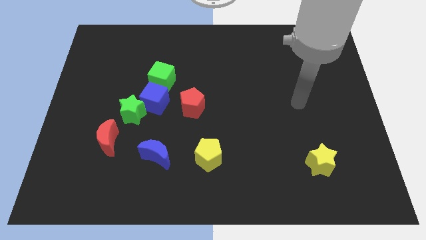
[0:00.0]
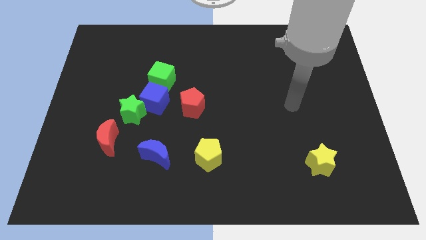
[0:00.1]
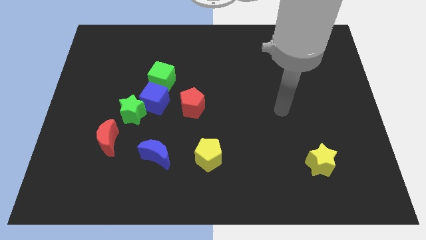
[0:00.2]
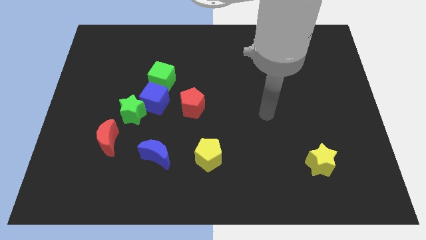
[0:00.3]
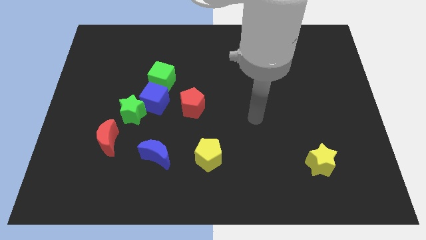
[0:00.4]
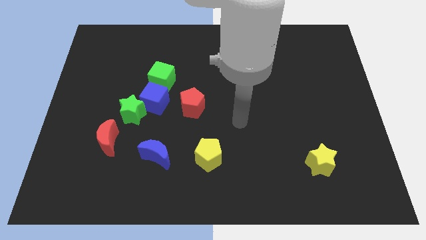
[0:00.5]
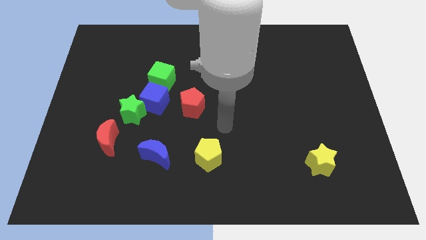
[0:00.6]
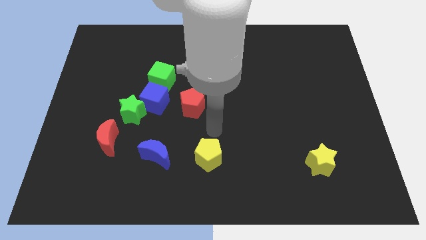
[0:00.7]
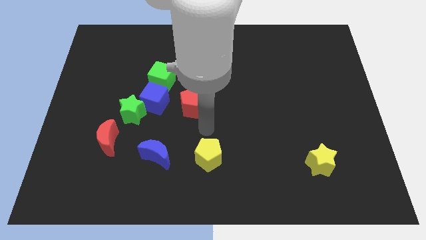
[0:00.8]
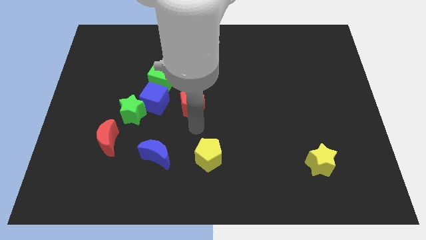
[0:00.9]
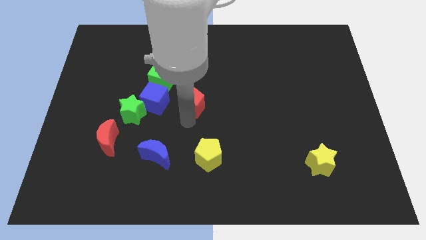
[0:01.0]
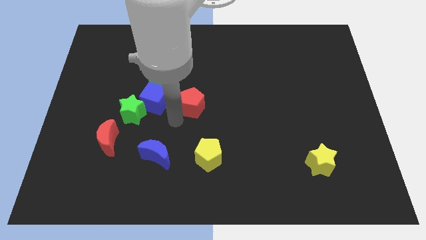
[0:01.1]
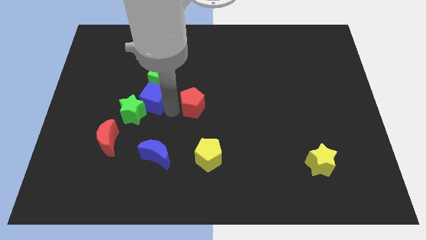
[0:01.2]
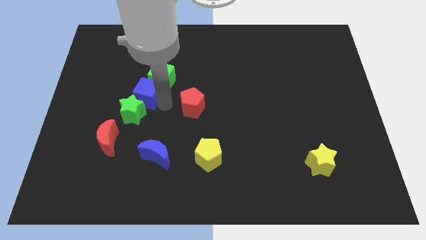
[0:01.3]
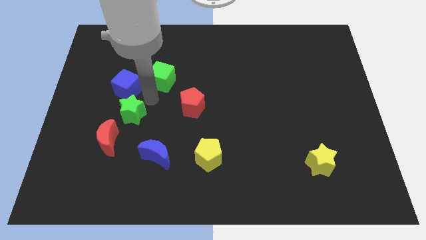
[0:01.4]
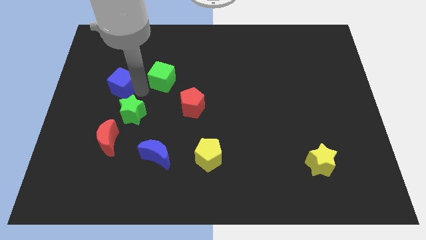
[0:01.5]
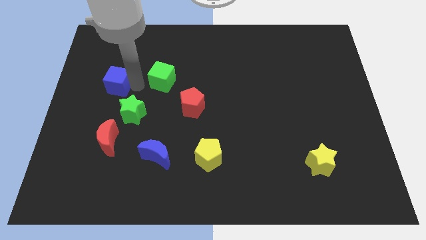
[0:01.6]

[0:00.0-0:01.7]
separate the green cube from the blue cube

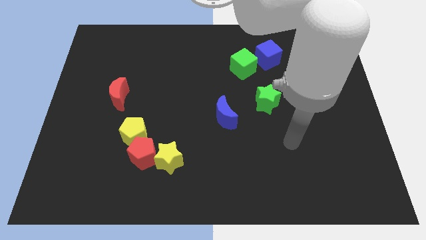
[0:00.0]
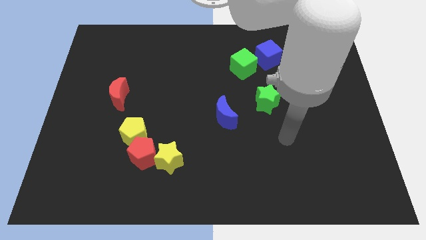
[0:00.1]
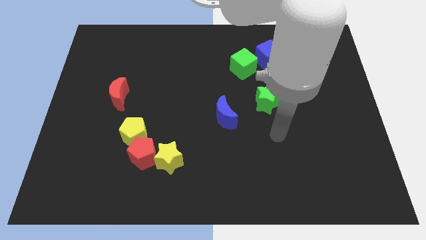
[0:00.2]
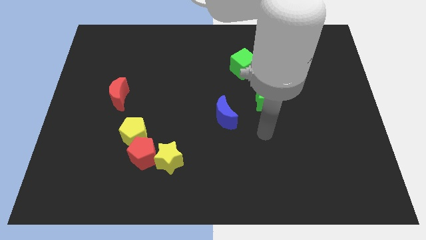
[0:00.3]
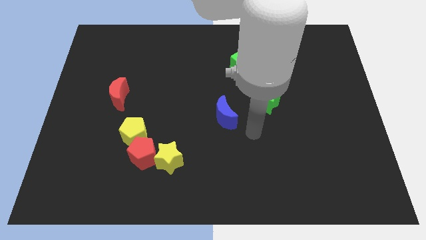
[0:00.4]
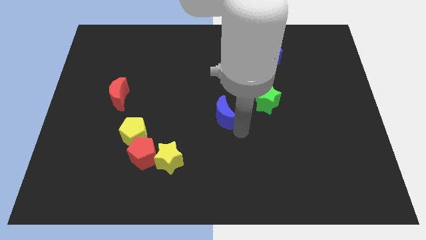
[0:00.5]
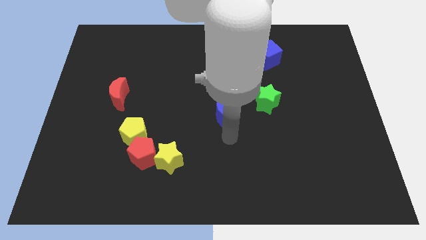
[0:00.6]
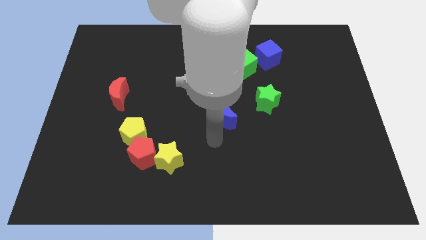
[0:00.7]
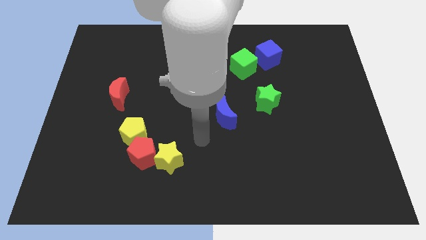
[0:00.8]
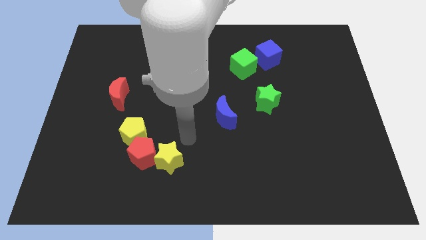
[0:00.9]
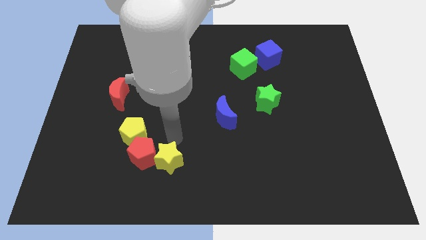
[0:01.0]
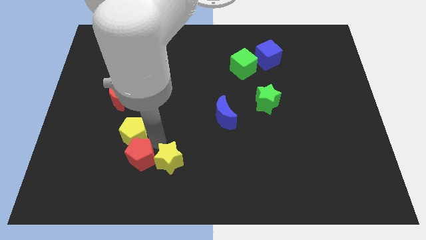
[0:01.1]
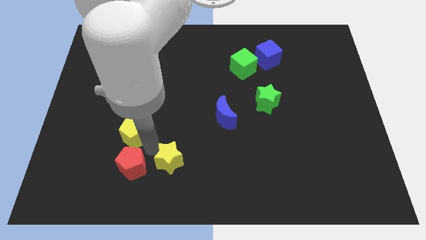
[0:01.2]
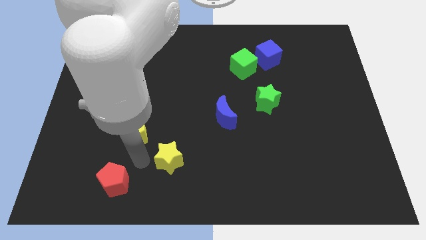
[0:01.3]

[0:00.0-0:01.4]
separate the yellow star from the red pentagon

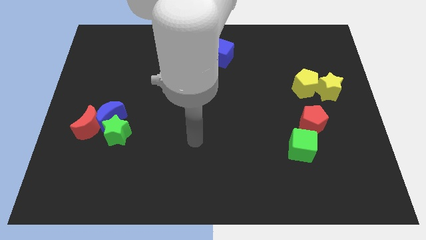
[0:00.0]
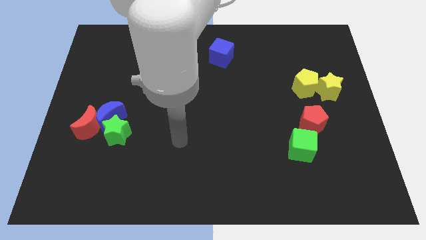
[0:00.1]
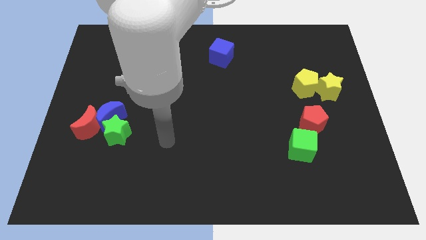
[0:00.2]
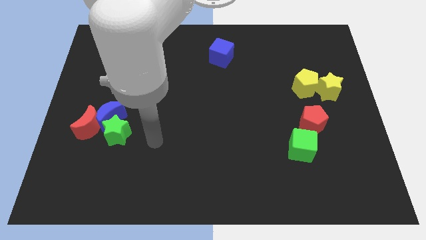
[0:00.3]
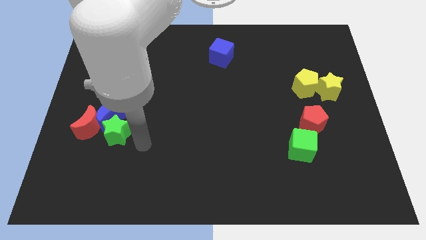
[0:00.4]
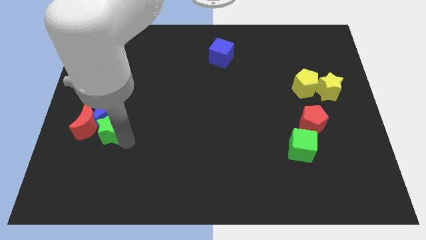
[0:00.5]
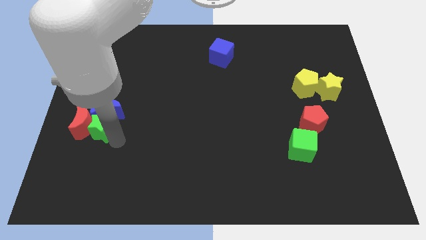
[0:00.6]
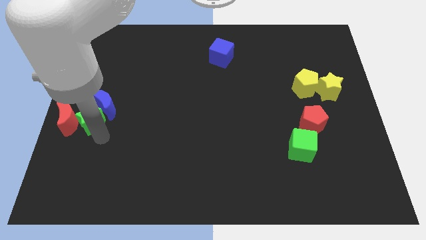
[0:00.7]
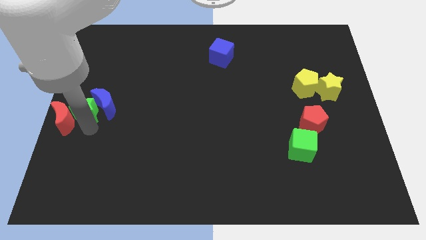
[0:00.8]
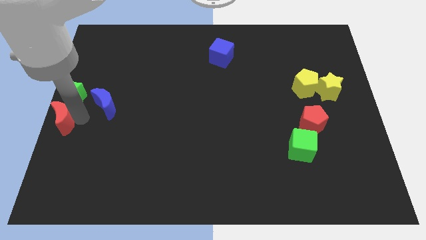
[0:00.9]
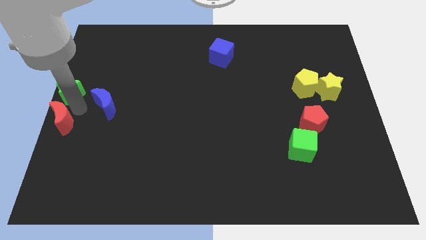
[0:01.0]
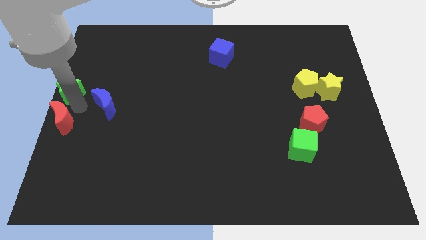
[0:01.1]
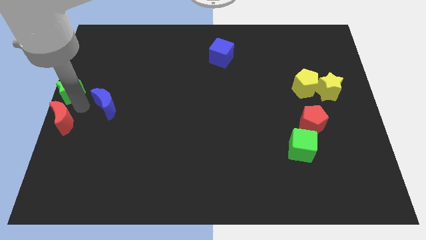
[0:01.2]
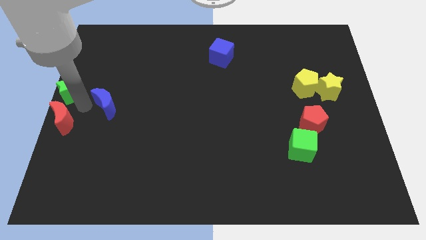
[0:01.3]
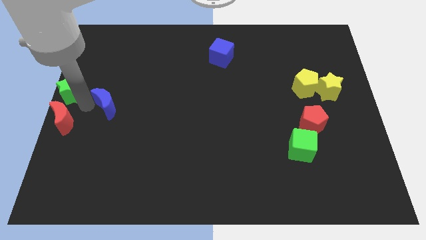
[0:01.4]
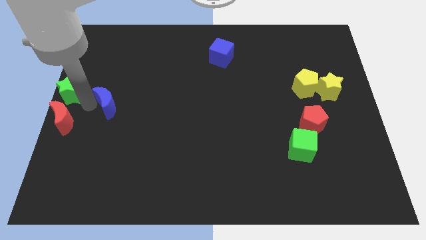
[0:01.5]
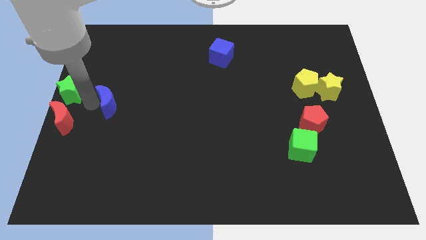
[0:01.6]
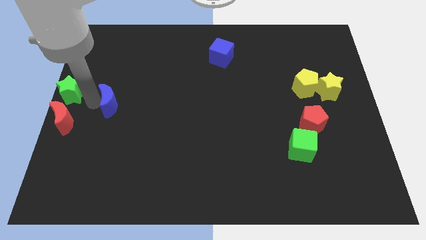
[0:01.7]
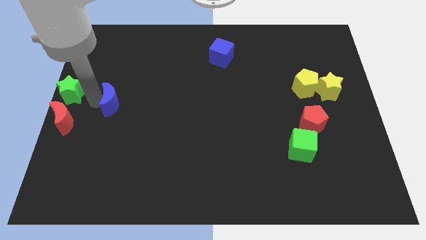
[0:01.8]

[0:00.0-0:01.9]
move the blue moon away from the red moon and green star

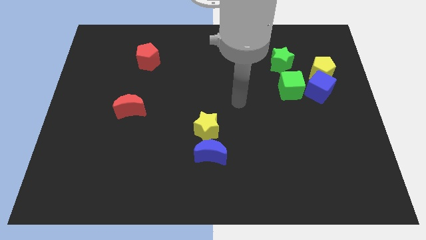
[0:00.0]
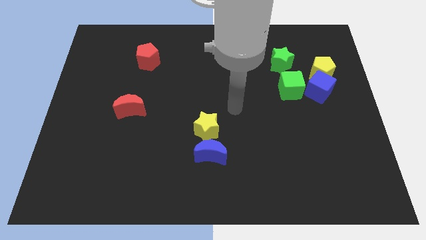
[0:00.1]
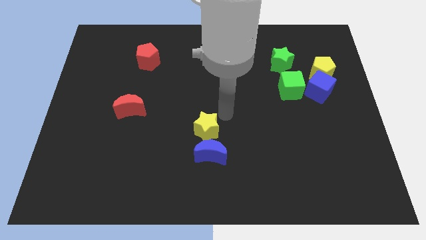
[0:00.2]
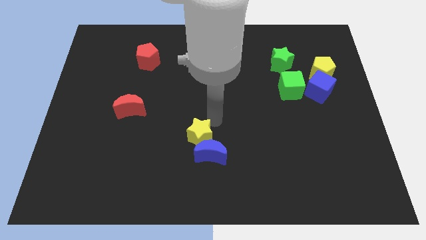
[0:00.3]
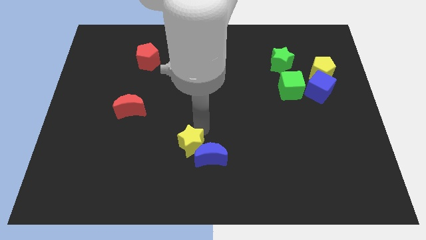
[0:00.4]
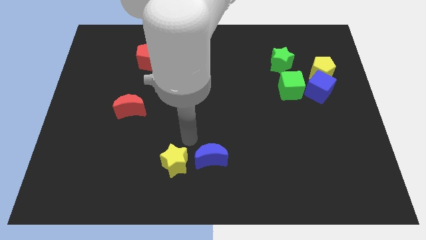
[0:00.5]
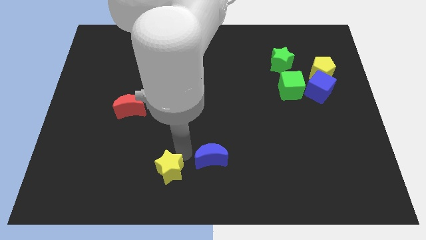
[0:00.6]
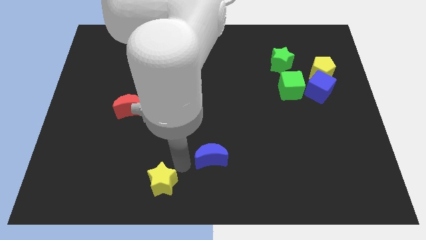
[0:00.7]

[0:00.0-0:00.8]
move the blue moon away from the yellow star

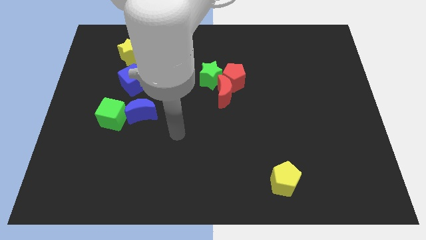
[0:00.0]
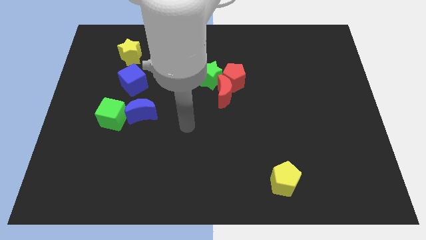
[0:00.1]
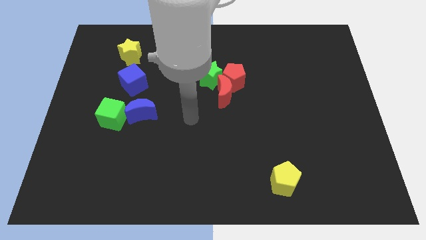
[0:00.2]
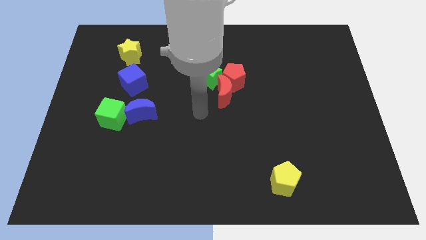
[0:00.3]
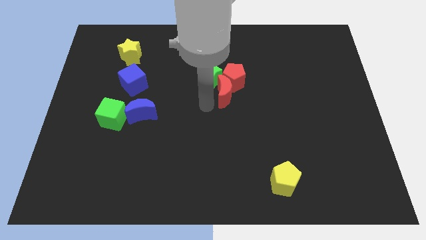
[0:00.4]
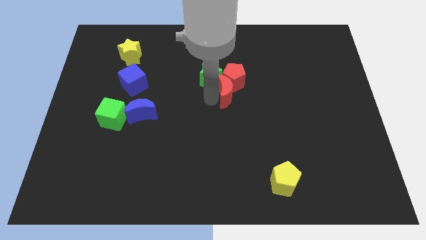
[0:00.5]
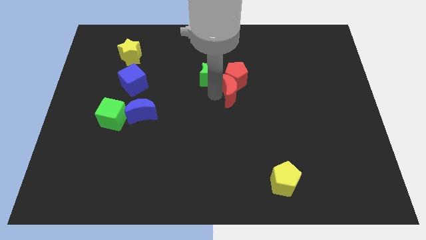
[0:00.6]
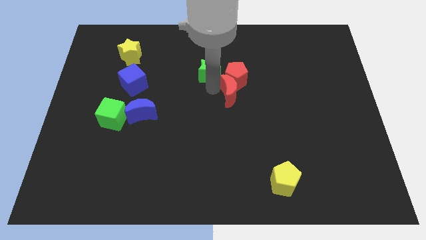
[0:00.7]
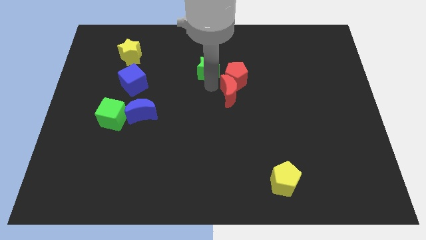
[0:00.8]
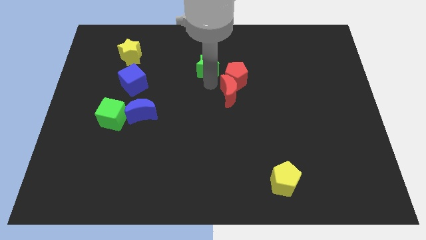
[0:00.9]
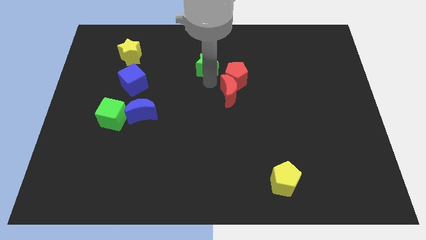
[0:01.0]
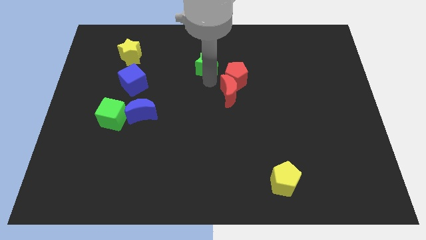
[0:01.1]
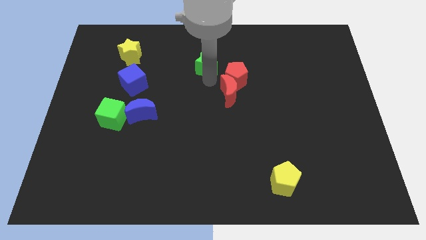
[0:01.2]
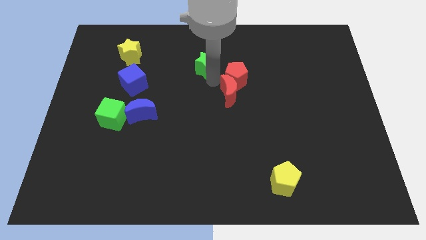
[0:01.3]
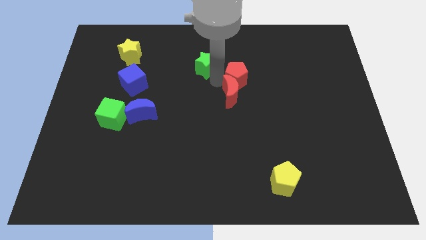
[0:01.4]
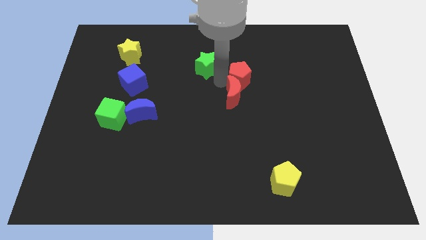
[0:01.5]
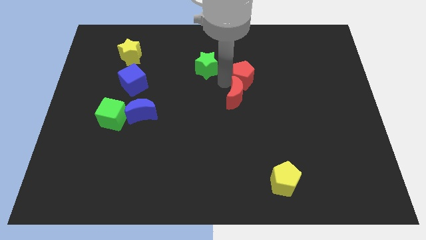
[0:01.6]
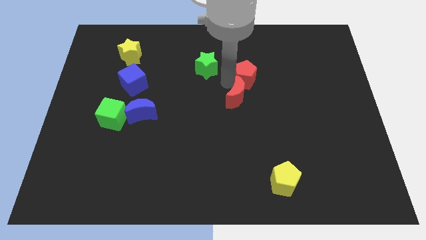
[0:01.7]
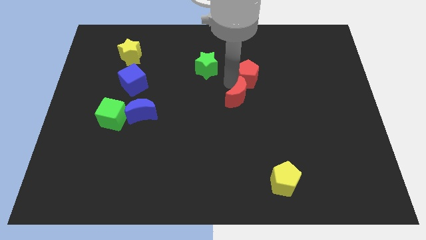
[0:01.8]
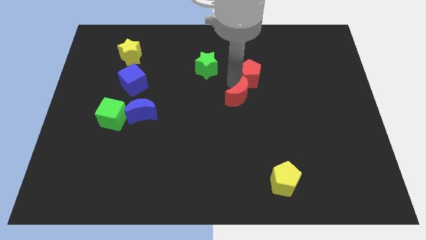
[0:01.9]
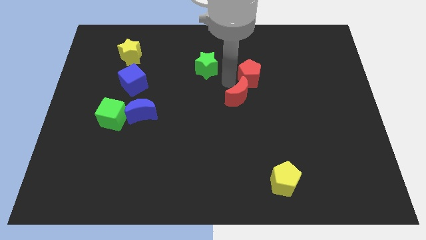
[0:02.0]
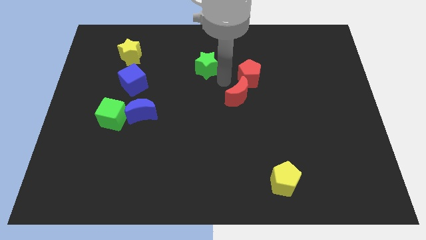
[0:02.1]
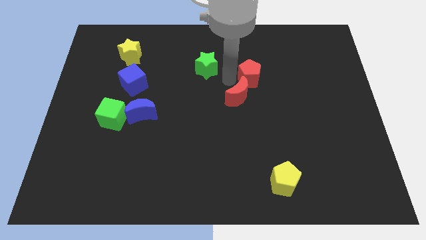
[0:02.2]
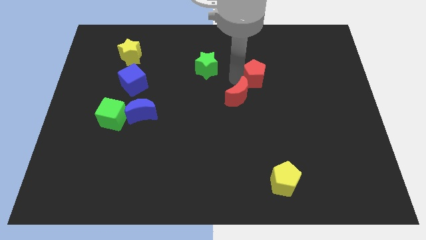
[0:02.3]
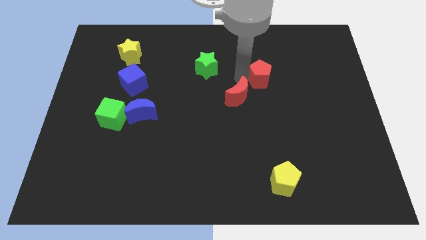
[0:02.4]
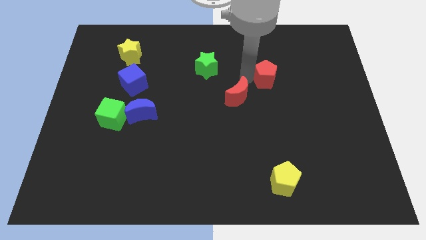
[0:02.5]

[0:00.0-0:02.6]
separate the red pentagon from the red moon and green star

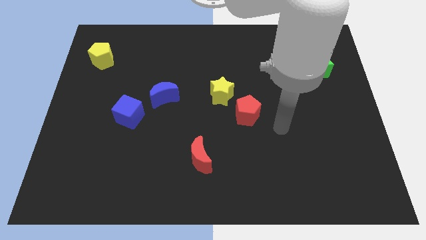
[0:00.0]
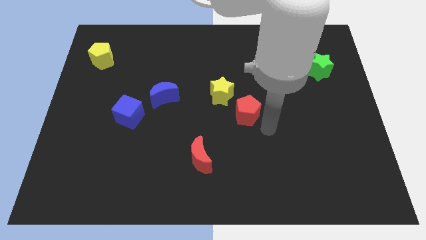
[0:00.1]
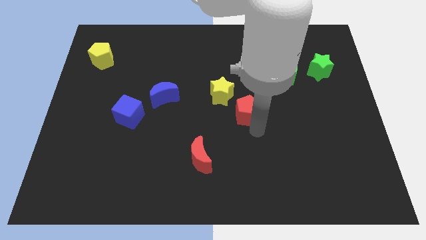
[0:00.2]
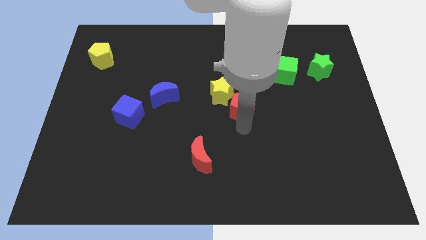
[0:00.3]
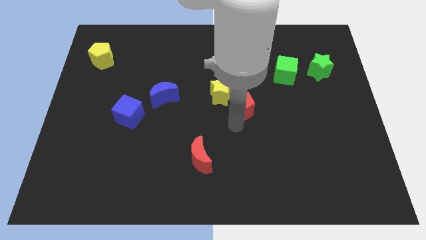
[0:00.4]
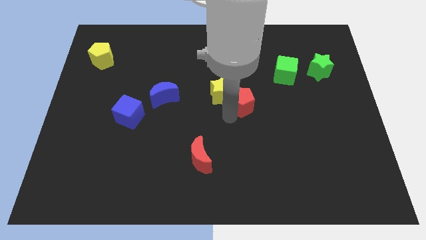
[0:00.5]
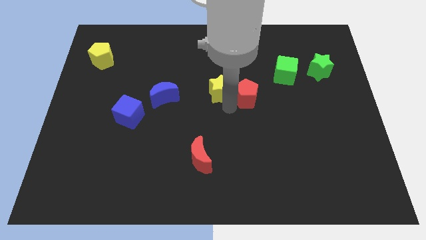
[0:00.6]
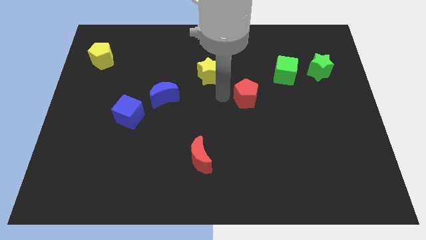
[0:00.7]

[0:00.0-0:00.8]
separate the red pentagon from the yellow star

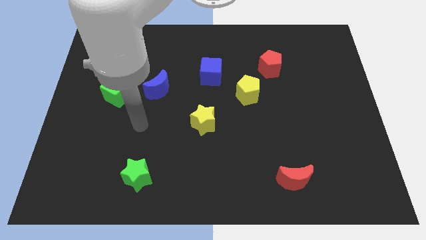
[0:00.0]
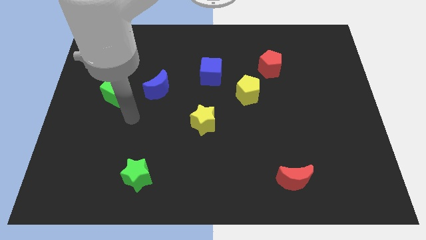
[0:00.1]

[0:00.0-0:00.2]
pull the blue moon apart from the green cube
